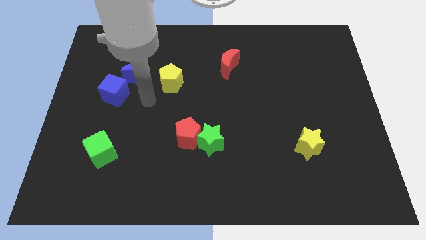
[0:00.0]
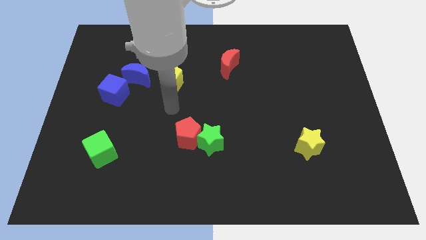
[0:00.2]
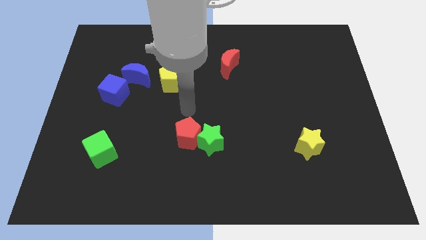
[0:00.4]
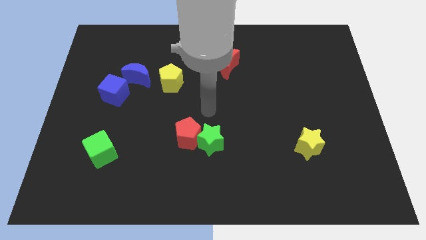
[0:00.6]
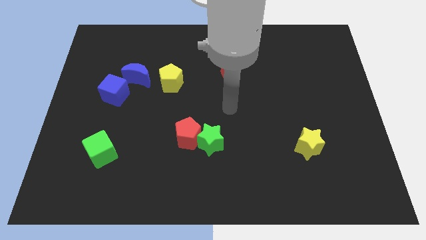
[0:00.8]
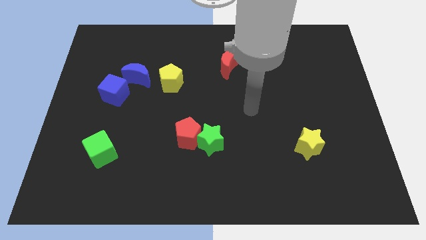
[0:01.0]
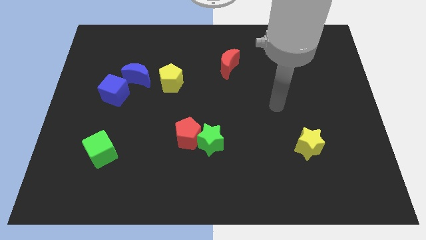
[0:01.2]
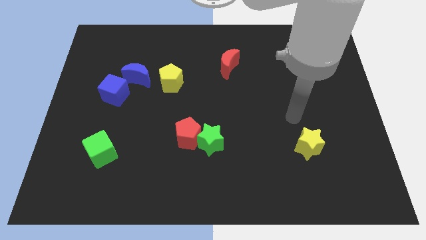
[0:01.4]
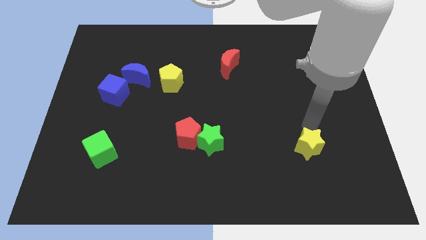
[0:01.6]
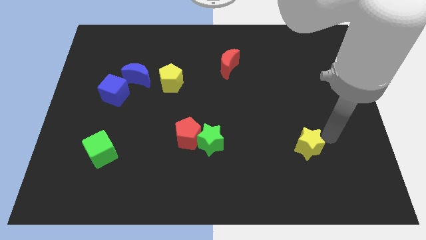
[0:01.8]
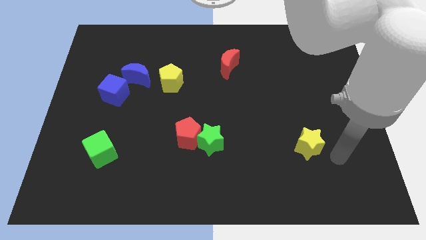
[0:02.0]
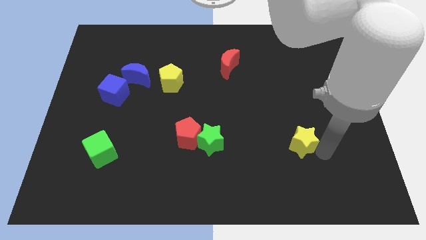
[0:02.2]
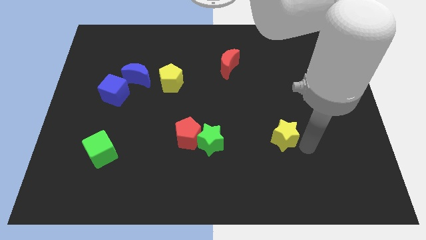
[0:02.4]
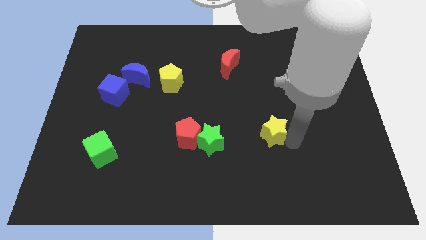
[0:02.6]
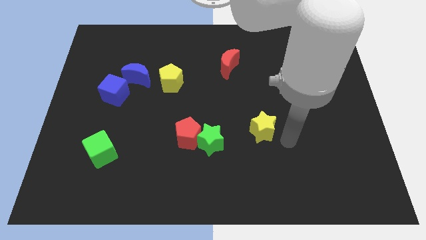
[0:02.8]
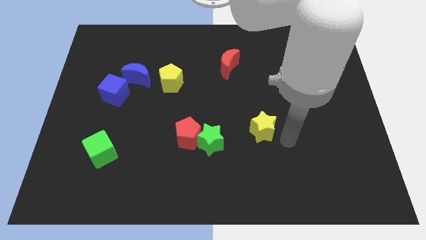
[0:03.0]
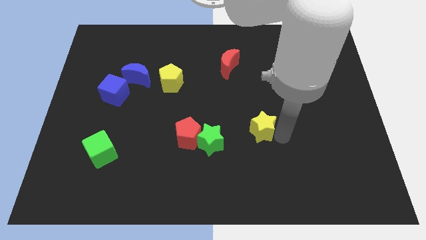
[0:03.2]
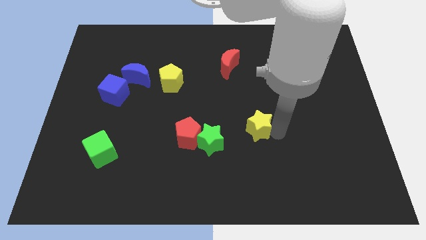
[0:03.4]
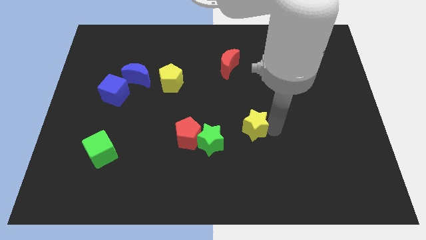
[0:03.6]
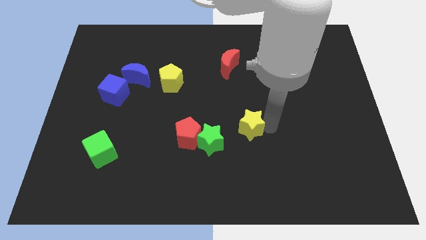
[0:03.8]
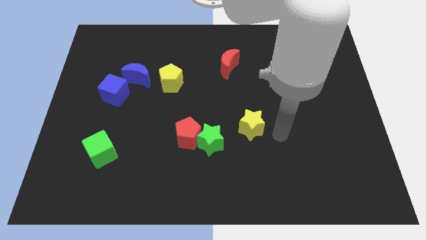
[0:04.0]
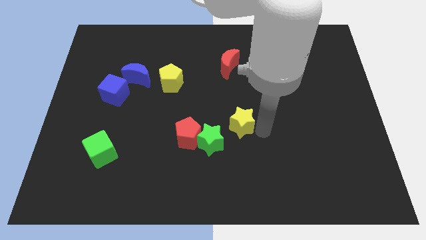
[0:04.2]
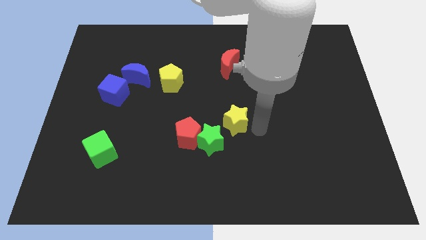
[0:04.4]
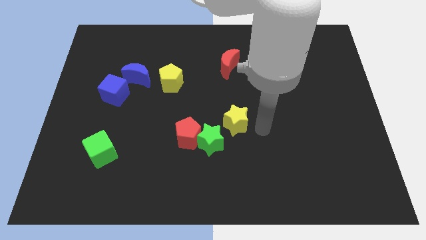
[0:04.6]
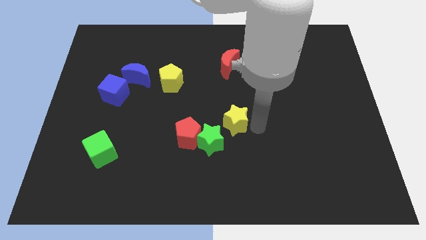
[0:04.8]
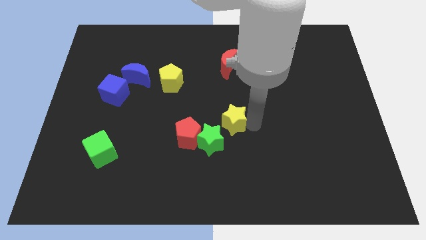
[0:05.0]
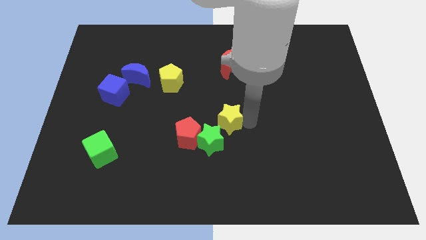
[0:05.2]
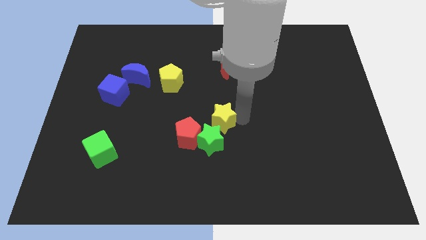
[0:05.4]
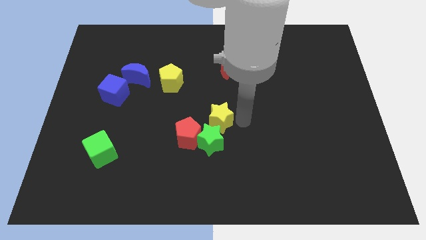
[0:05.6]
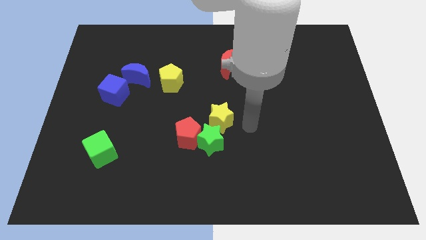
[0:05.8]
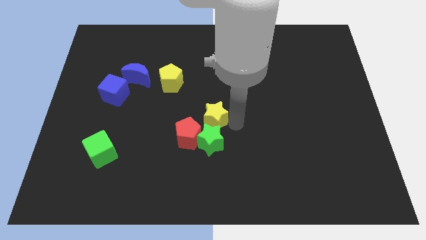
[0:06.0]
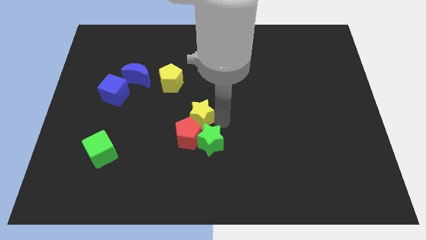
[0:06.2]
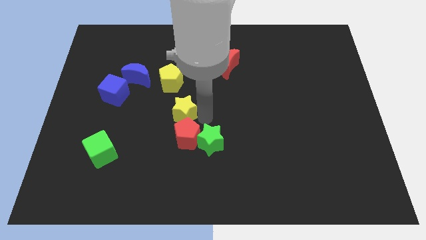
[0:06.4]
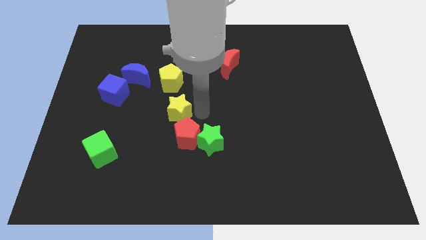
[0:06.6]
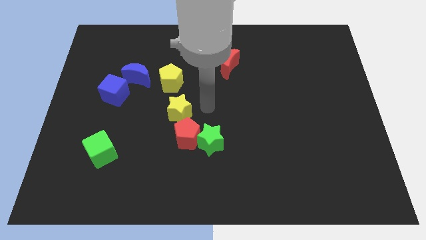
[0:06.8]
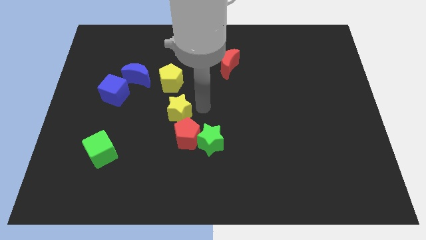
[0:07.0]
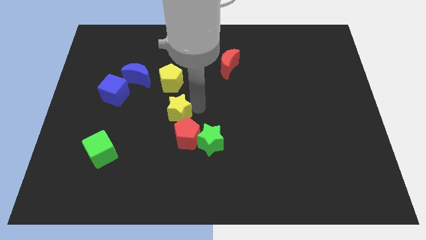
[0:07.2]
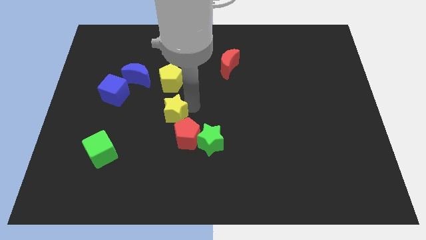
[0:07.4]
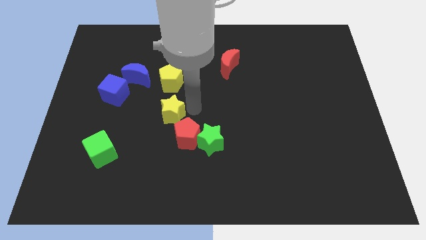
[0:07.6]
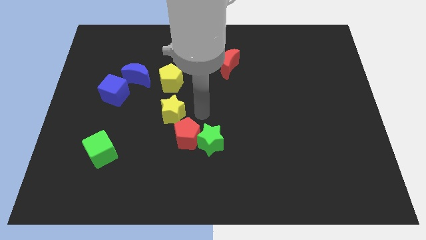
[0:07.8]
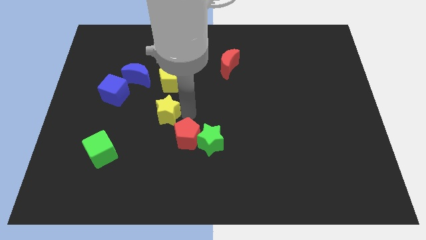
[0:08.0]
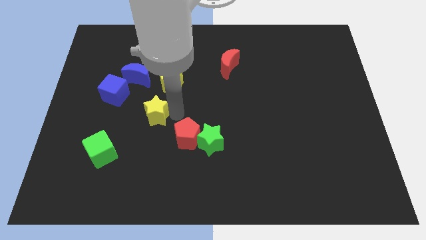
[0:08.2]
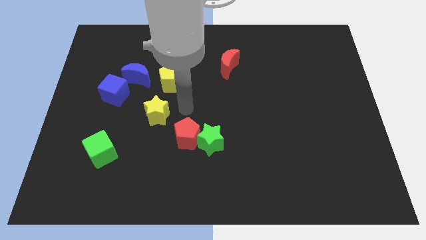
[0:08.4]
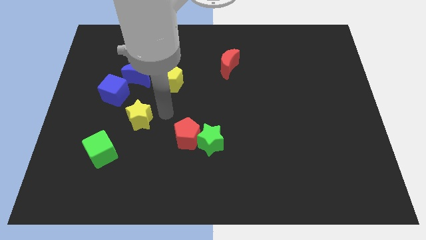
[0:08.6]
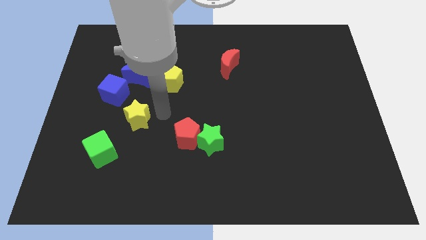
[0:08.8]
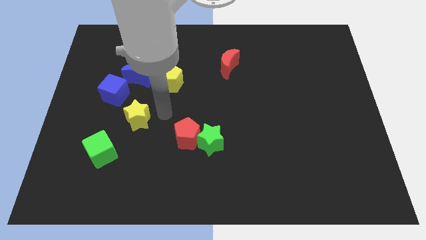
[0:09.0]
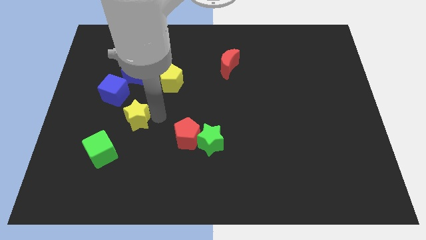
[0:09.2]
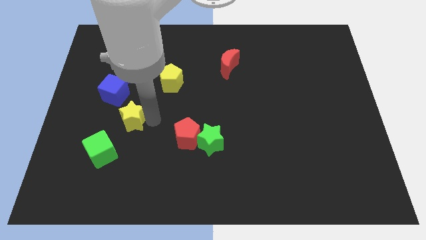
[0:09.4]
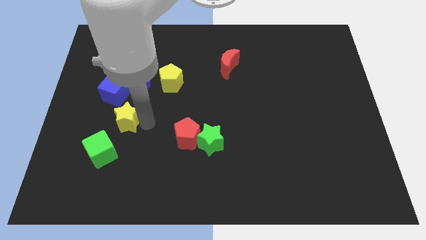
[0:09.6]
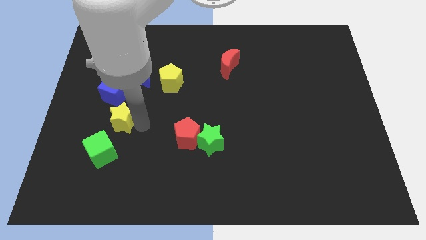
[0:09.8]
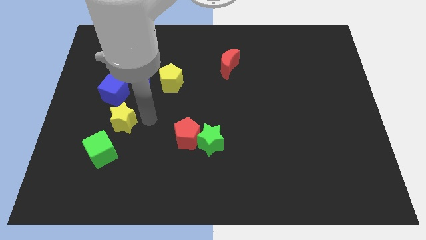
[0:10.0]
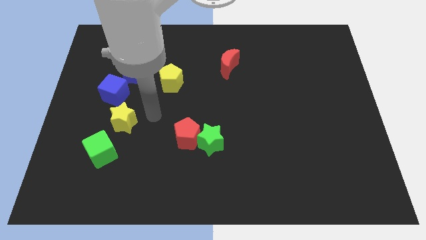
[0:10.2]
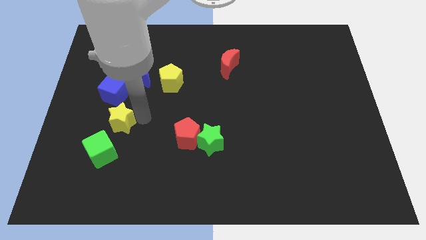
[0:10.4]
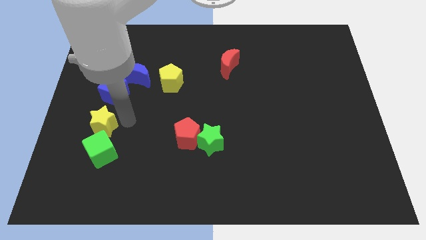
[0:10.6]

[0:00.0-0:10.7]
slide the yellow star diagonally up and to the left of the green cube

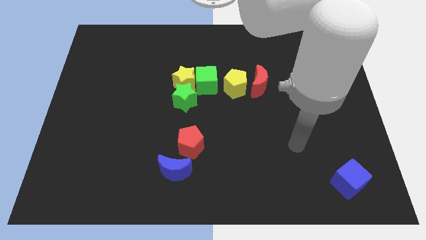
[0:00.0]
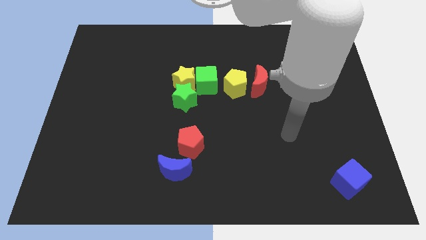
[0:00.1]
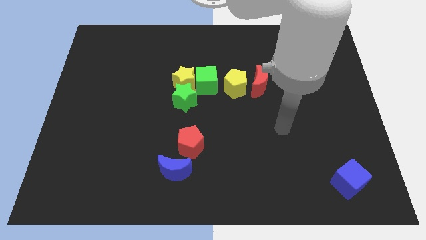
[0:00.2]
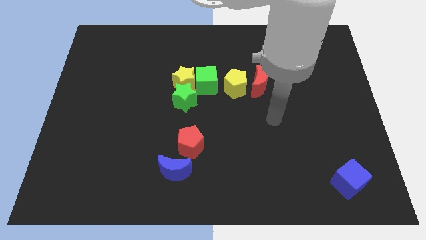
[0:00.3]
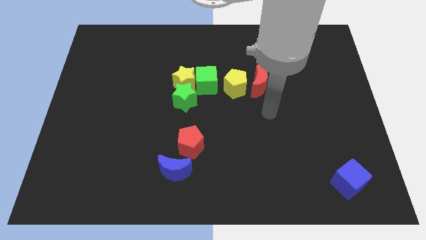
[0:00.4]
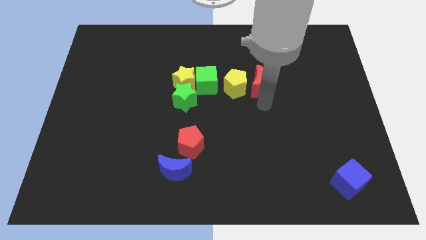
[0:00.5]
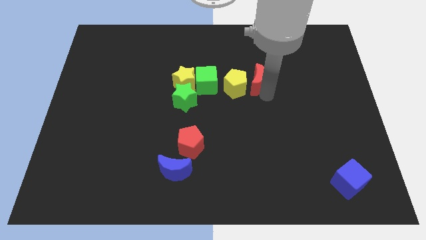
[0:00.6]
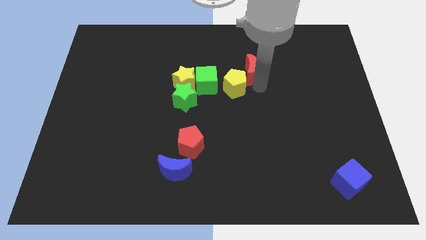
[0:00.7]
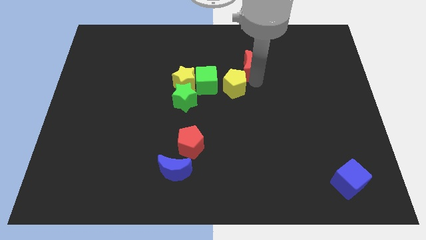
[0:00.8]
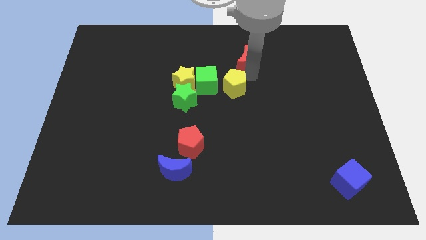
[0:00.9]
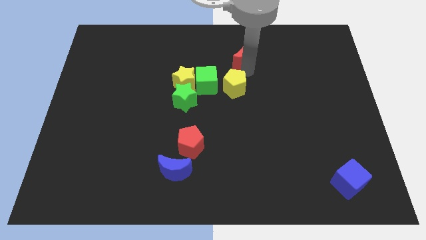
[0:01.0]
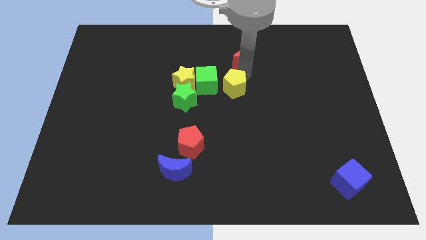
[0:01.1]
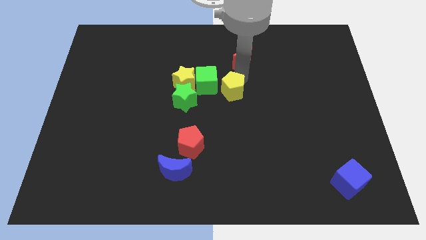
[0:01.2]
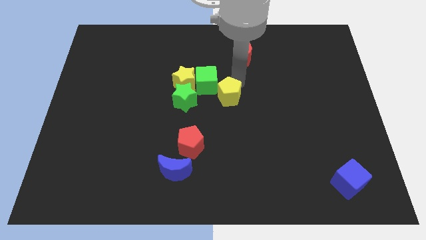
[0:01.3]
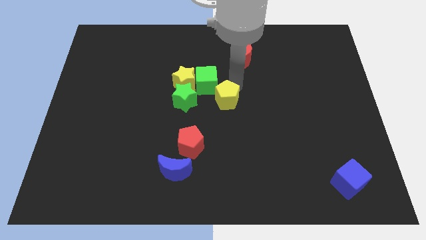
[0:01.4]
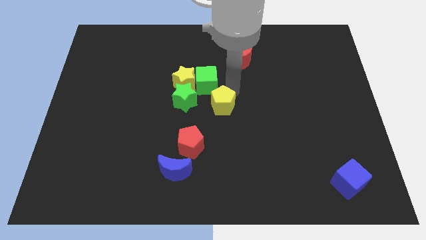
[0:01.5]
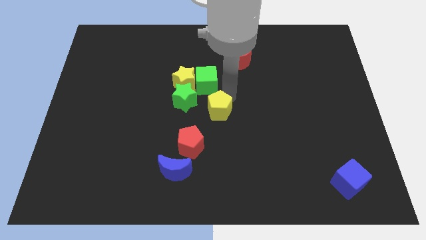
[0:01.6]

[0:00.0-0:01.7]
move the yellow pentagon to the bottom right side of the green star
